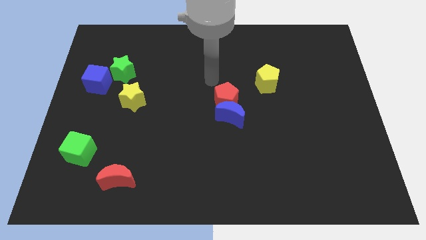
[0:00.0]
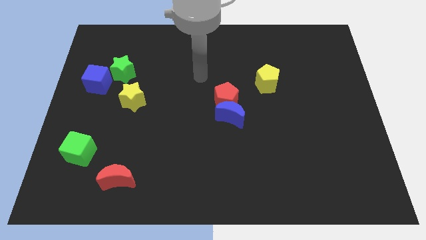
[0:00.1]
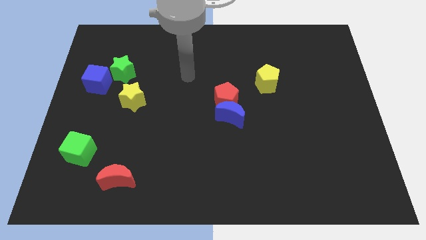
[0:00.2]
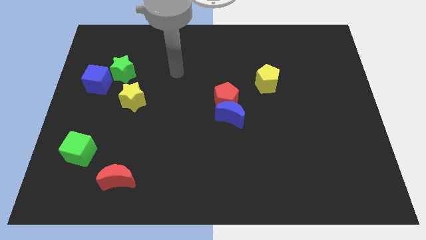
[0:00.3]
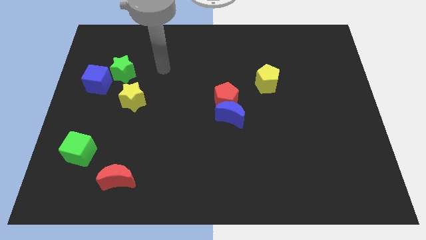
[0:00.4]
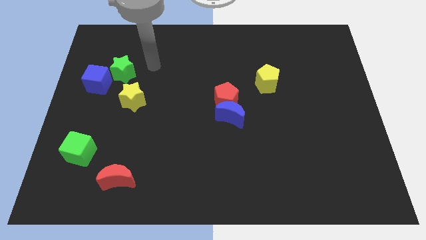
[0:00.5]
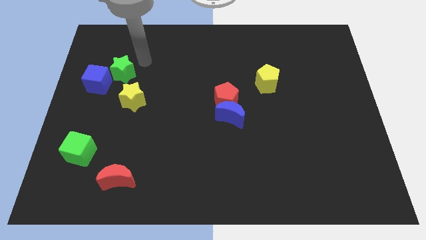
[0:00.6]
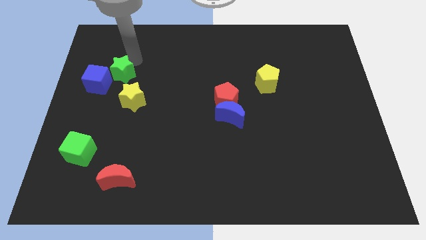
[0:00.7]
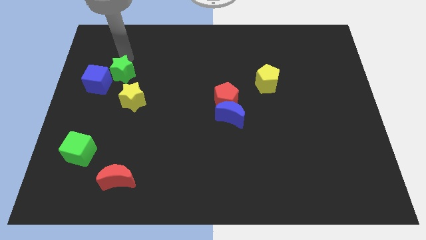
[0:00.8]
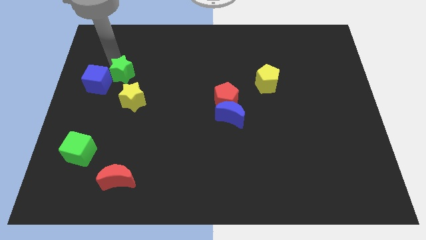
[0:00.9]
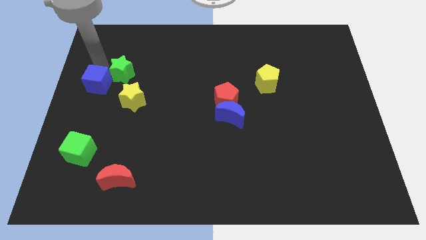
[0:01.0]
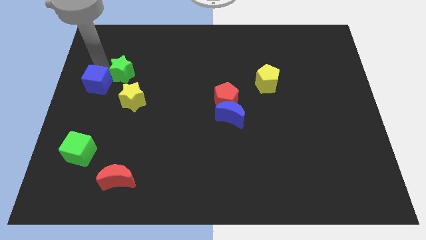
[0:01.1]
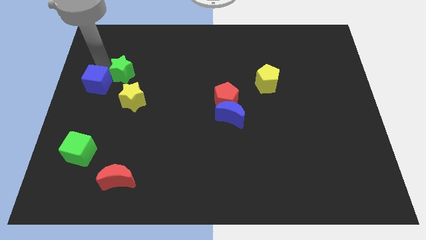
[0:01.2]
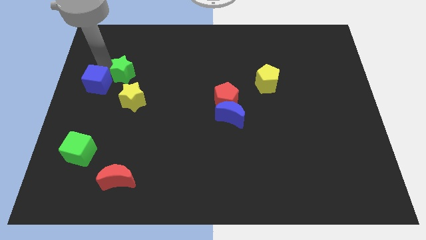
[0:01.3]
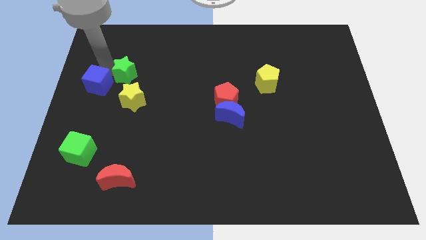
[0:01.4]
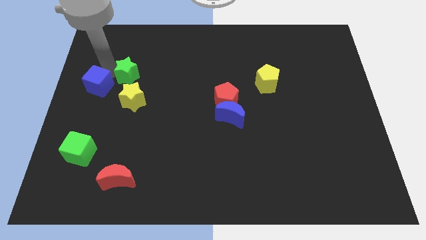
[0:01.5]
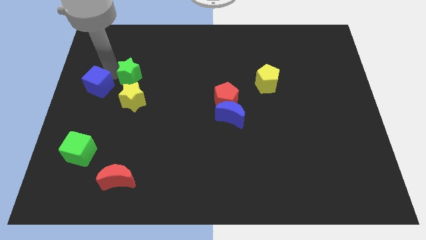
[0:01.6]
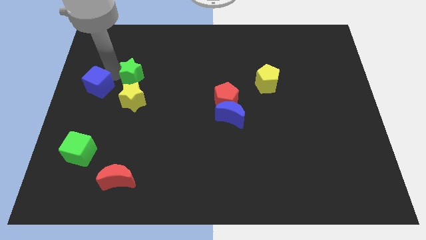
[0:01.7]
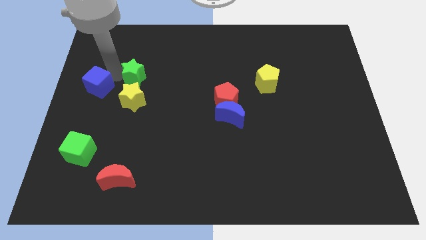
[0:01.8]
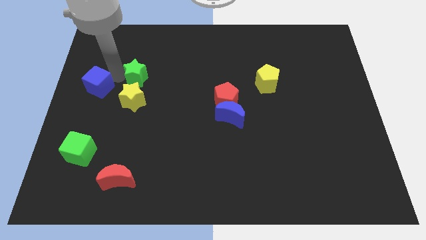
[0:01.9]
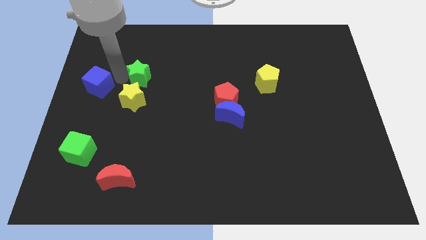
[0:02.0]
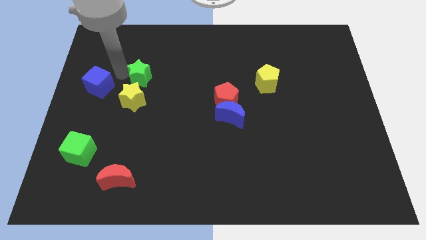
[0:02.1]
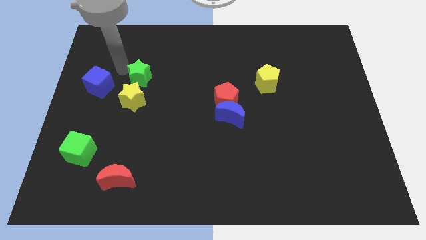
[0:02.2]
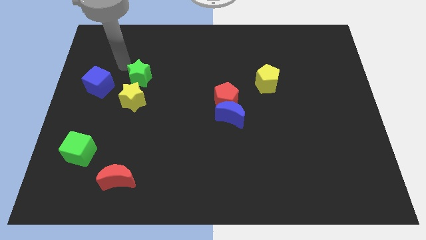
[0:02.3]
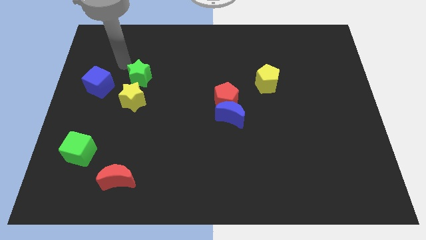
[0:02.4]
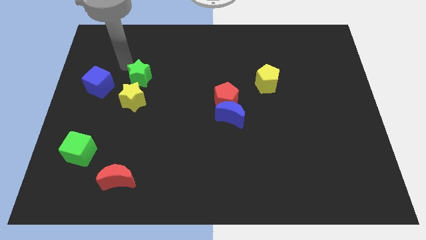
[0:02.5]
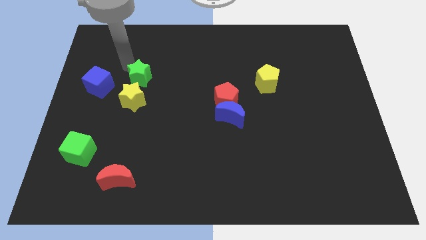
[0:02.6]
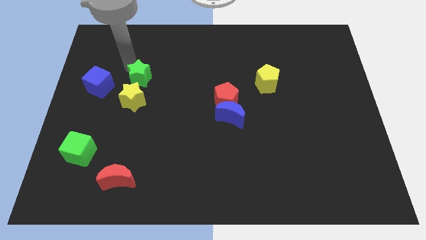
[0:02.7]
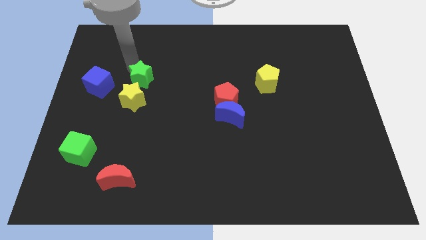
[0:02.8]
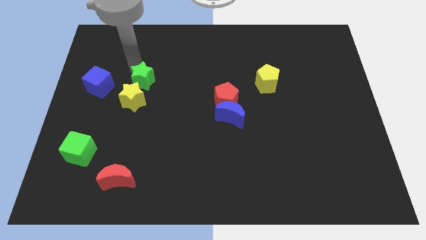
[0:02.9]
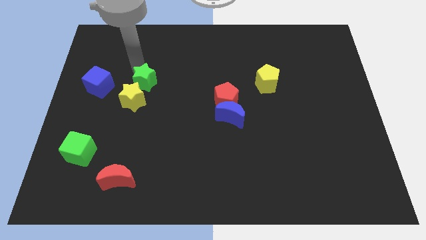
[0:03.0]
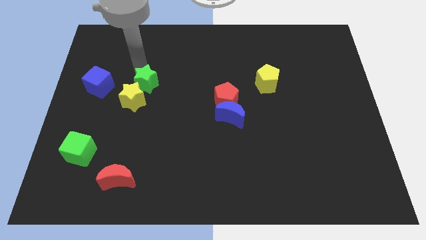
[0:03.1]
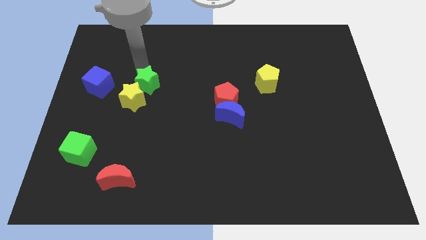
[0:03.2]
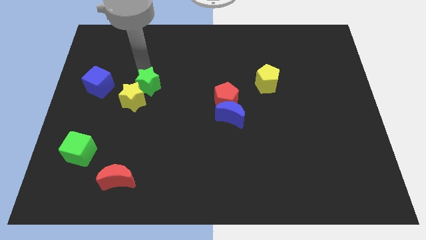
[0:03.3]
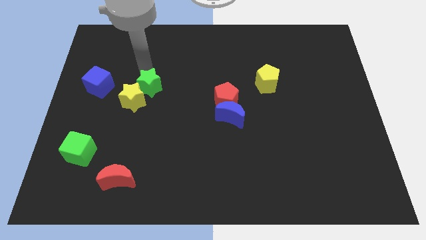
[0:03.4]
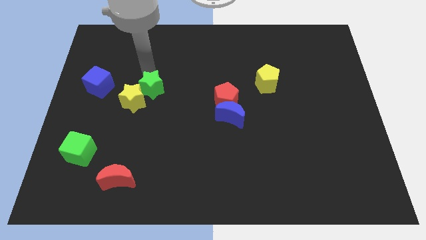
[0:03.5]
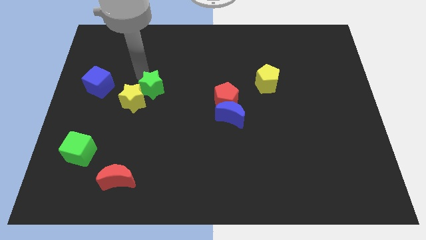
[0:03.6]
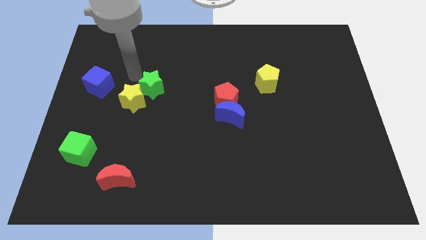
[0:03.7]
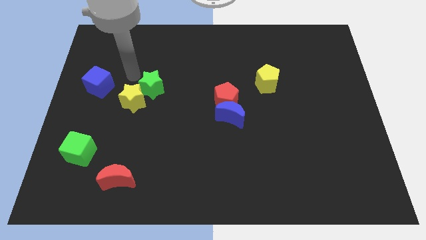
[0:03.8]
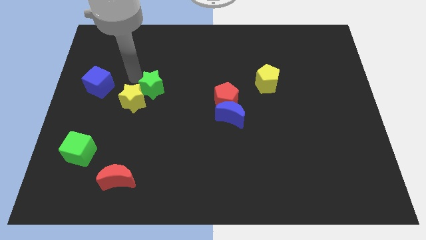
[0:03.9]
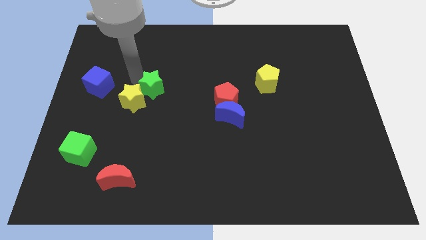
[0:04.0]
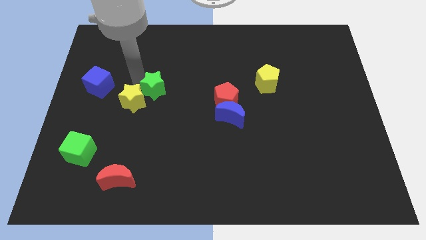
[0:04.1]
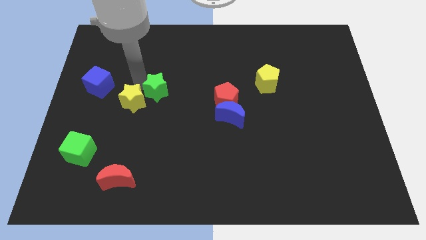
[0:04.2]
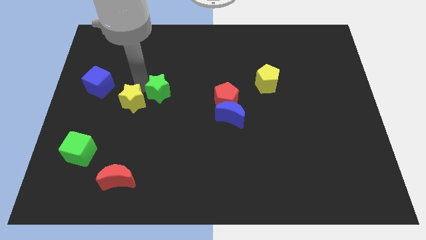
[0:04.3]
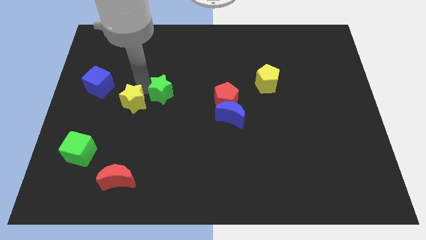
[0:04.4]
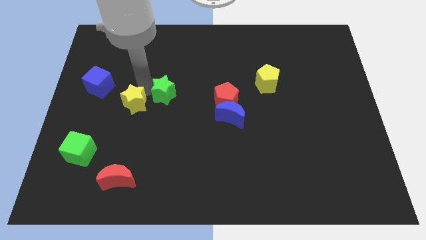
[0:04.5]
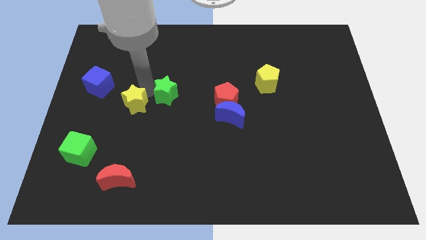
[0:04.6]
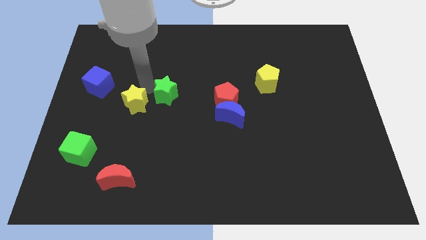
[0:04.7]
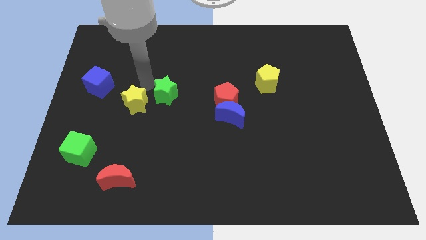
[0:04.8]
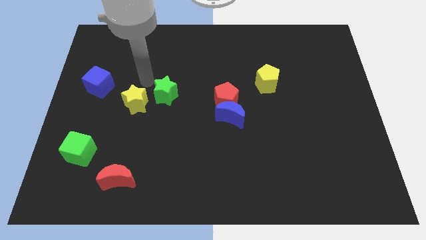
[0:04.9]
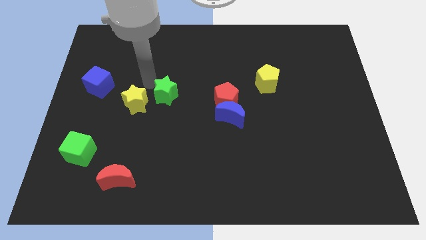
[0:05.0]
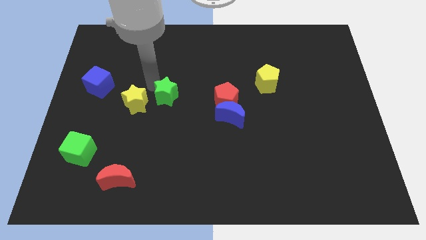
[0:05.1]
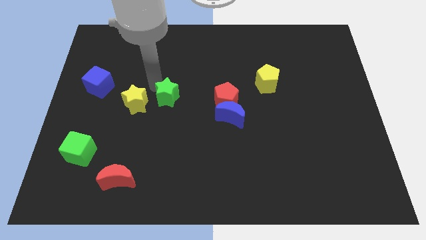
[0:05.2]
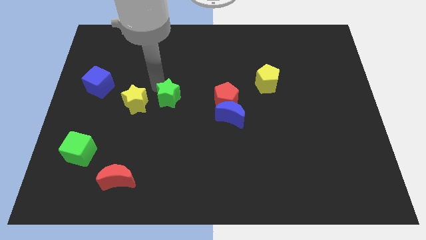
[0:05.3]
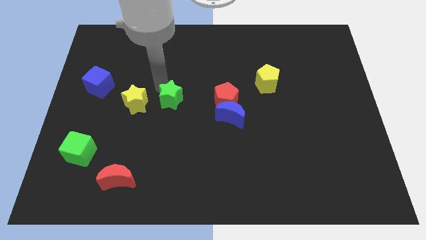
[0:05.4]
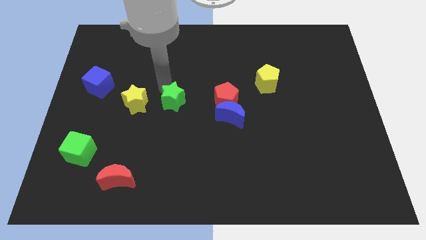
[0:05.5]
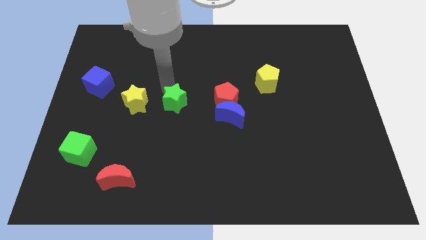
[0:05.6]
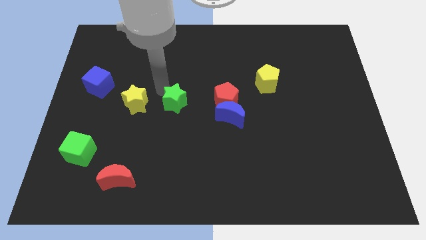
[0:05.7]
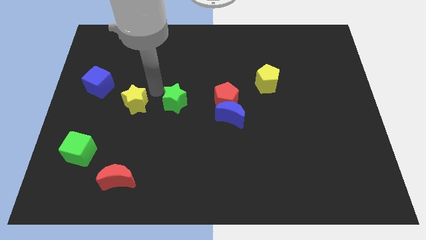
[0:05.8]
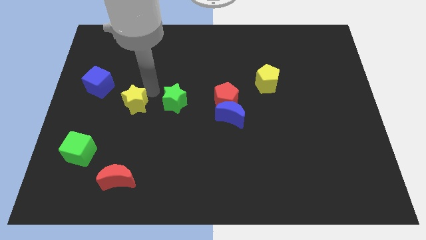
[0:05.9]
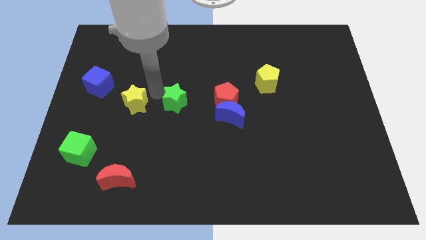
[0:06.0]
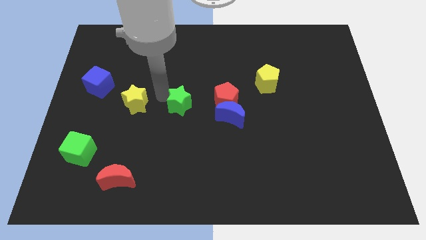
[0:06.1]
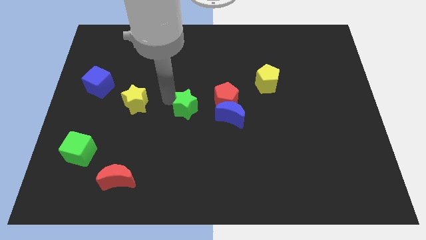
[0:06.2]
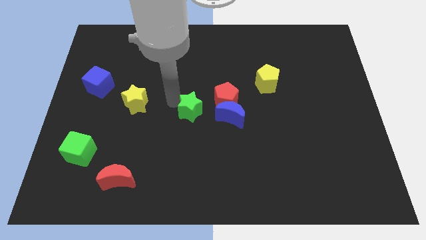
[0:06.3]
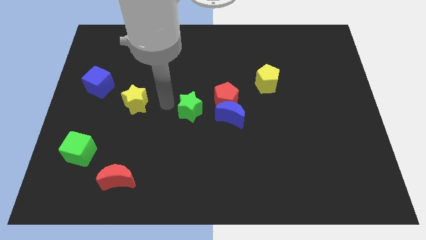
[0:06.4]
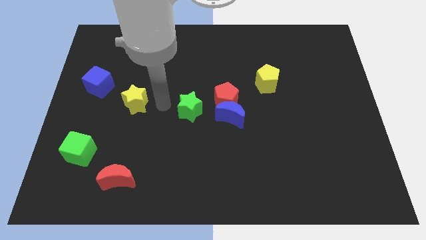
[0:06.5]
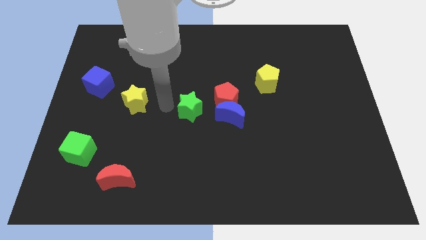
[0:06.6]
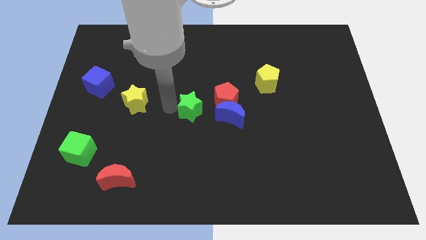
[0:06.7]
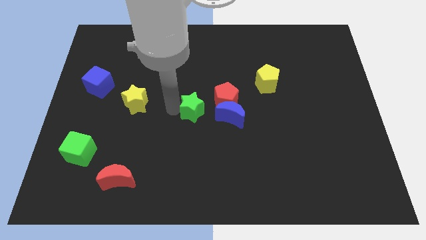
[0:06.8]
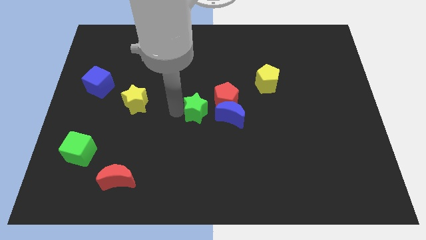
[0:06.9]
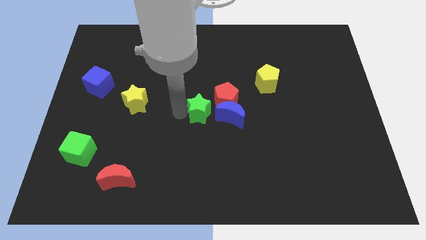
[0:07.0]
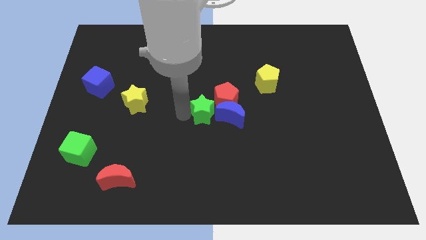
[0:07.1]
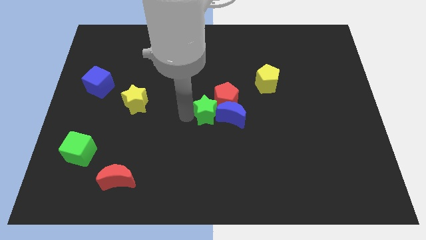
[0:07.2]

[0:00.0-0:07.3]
put the green star to the blue moon
